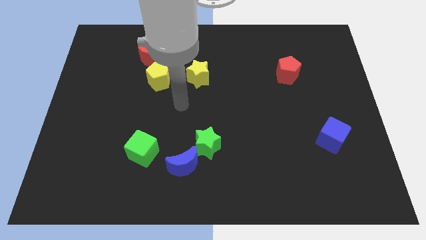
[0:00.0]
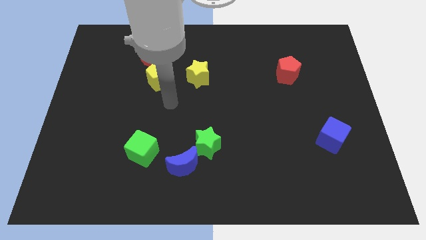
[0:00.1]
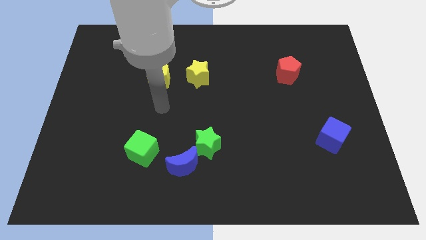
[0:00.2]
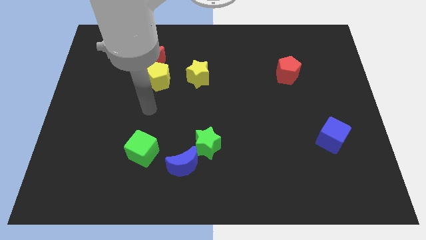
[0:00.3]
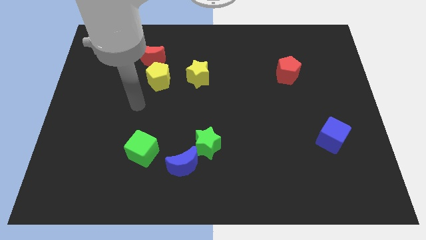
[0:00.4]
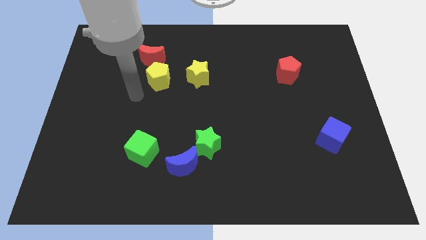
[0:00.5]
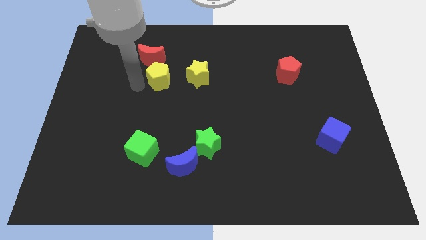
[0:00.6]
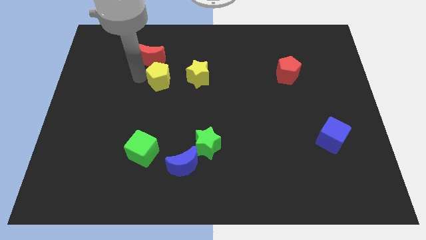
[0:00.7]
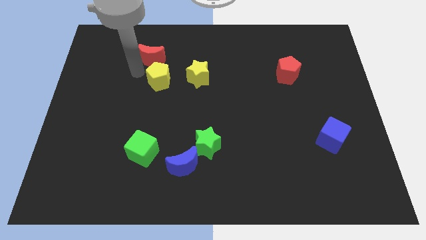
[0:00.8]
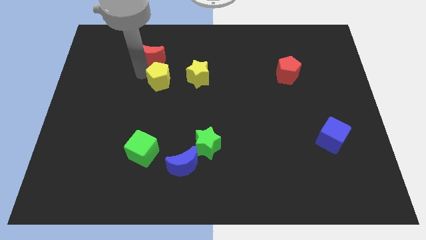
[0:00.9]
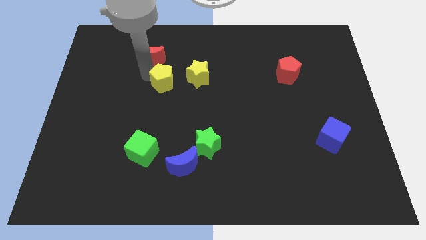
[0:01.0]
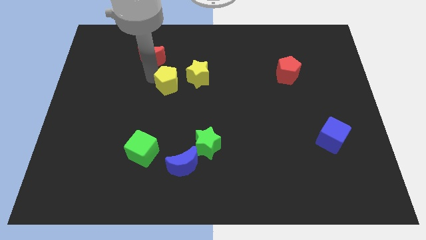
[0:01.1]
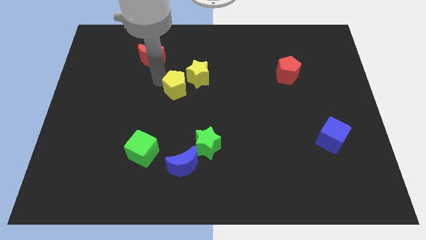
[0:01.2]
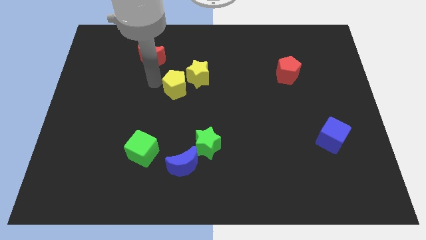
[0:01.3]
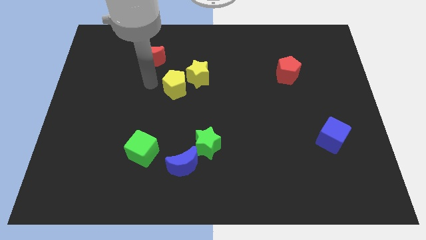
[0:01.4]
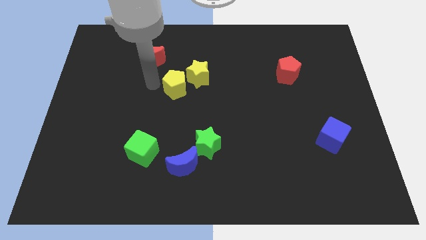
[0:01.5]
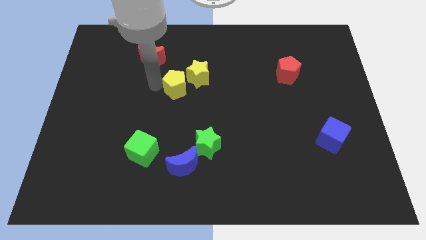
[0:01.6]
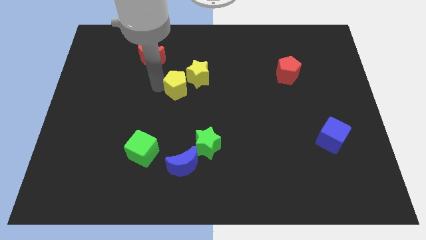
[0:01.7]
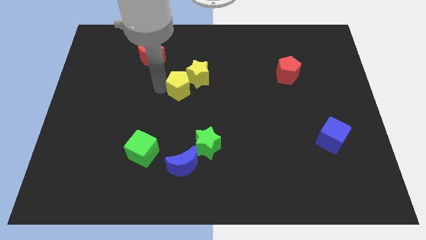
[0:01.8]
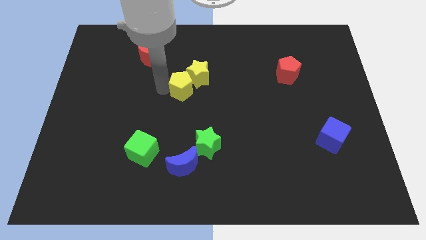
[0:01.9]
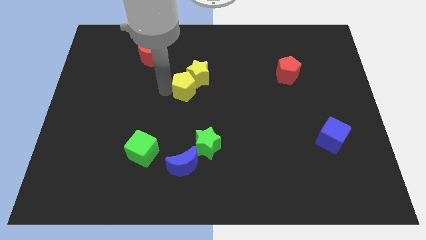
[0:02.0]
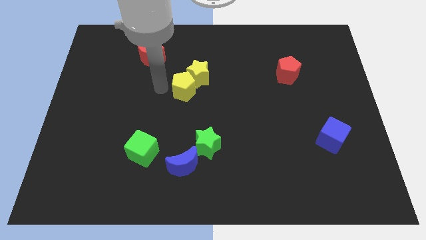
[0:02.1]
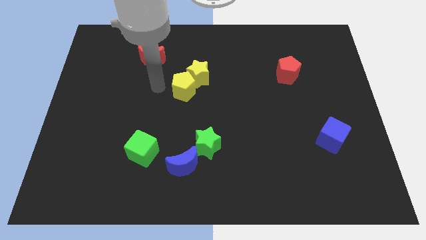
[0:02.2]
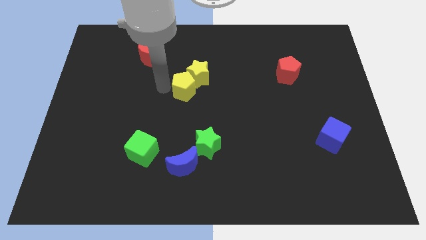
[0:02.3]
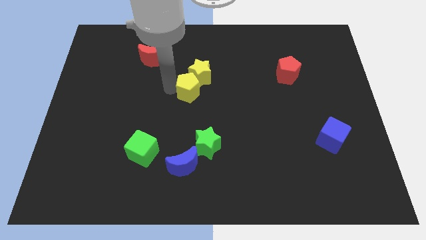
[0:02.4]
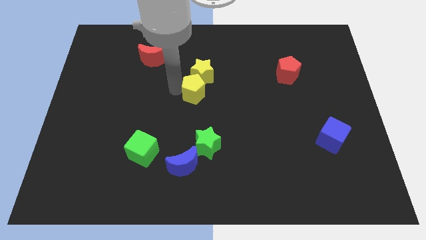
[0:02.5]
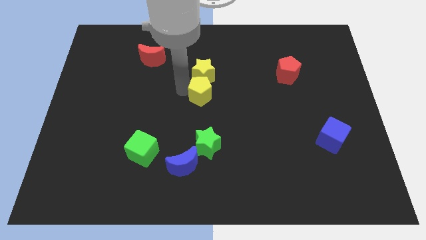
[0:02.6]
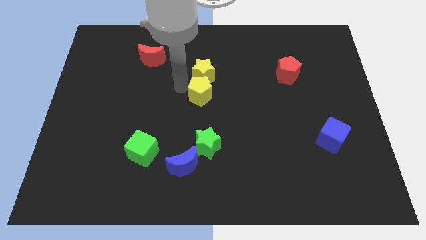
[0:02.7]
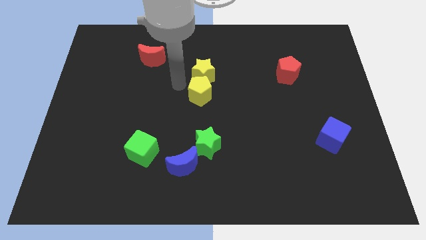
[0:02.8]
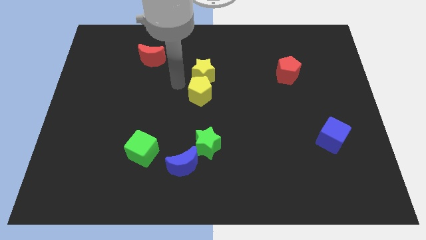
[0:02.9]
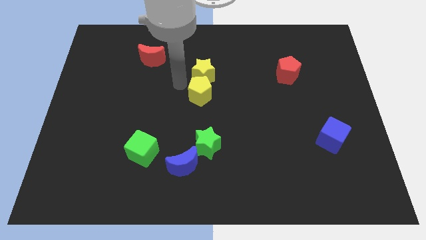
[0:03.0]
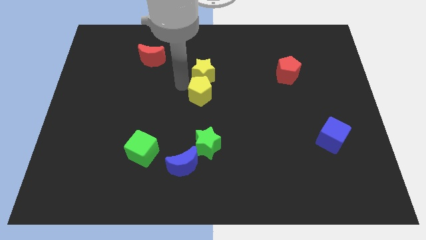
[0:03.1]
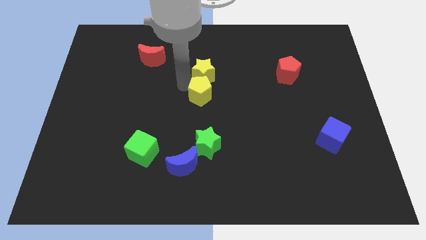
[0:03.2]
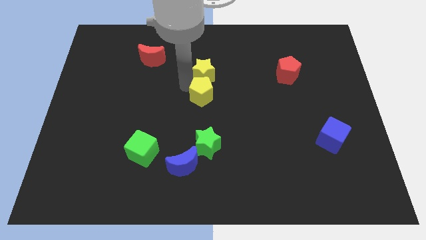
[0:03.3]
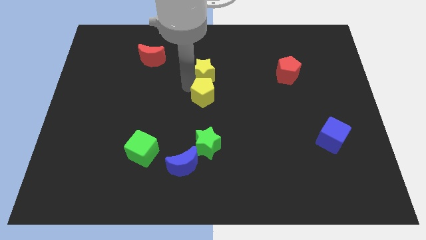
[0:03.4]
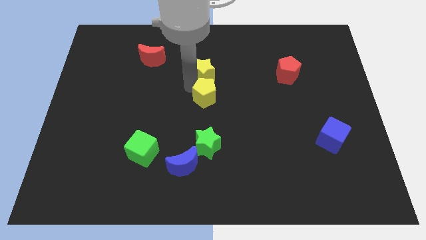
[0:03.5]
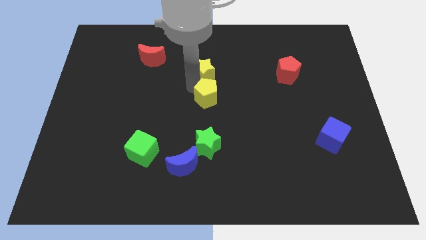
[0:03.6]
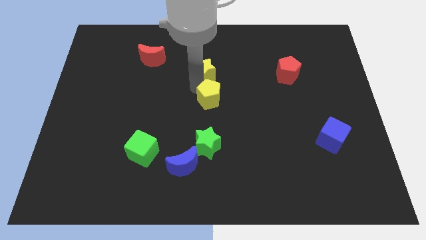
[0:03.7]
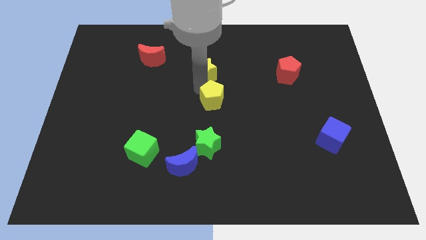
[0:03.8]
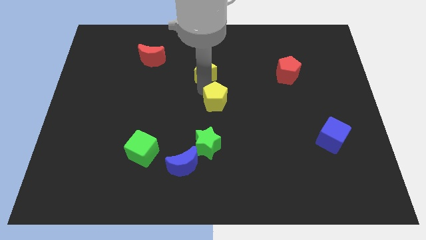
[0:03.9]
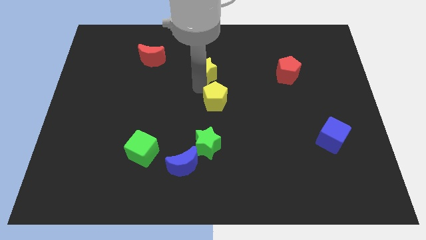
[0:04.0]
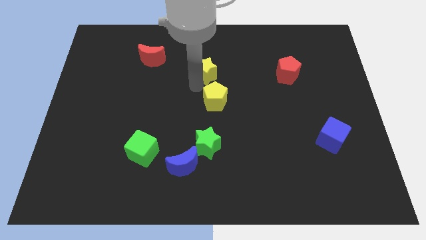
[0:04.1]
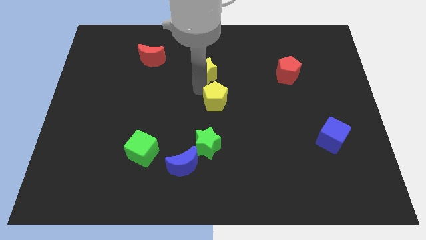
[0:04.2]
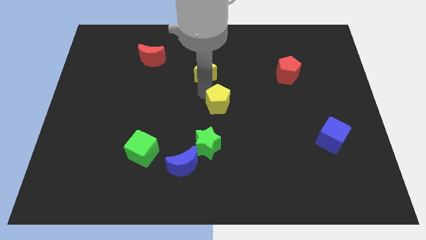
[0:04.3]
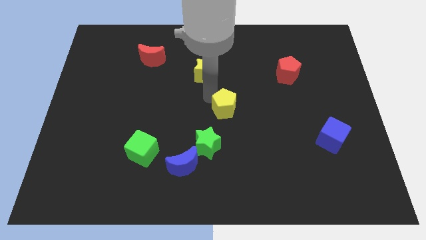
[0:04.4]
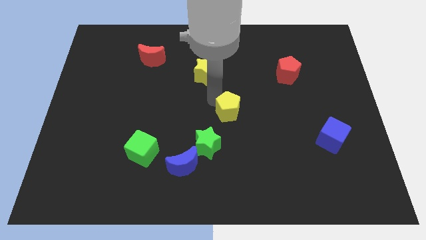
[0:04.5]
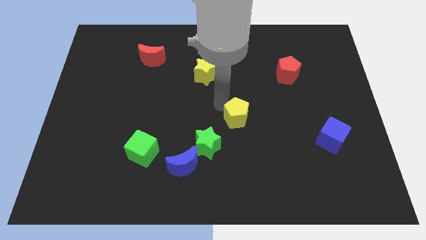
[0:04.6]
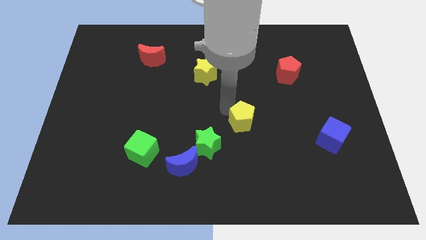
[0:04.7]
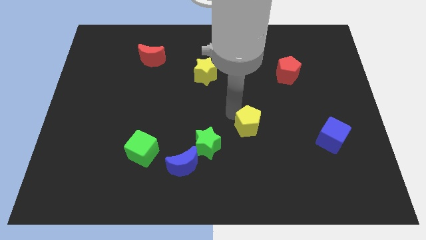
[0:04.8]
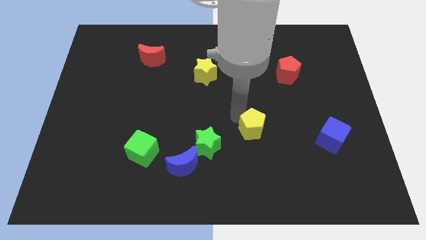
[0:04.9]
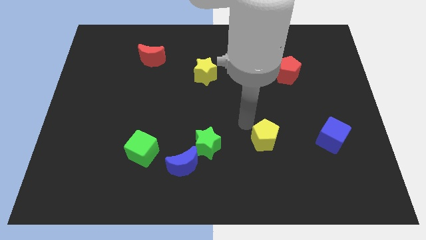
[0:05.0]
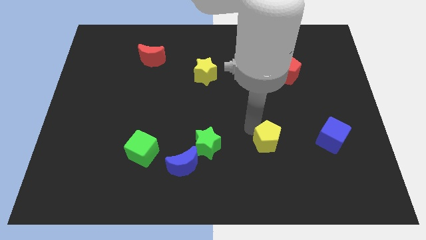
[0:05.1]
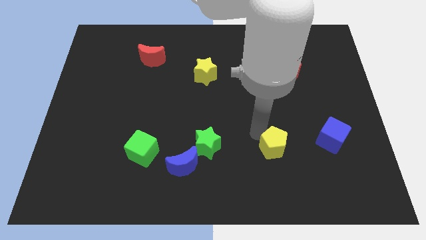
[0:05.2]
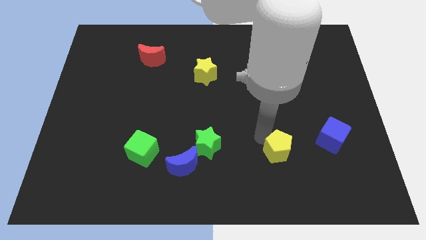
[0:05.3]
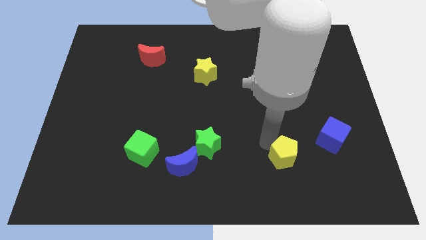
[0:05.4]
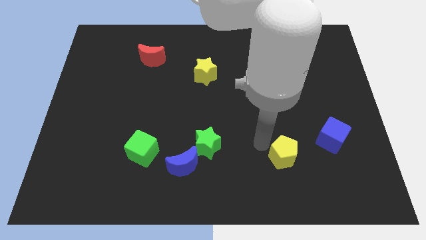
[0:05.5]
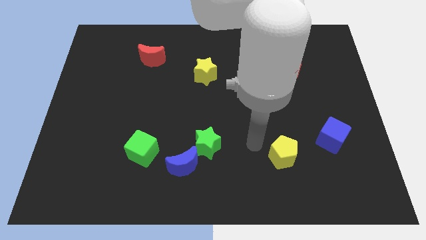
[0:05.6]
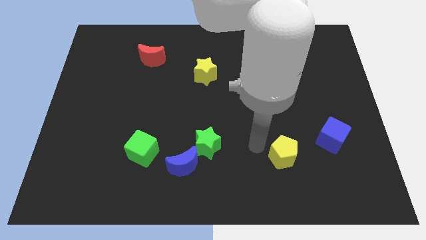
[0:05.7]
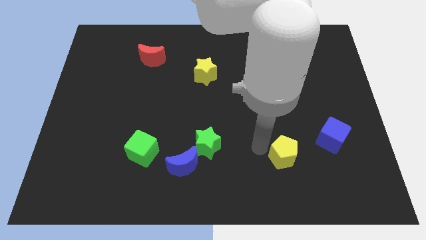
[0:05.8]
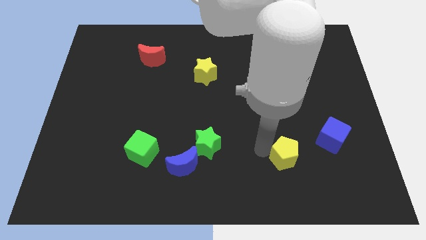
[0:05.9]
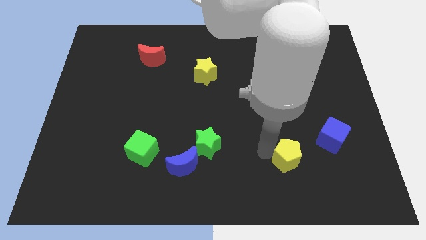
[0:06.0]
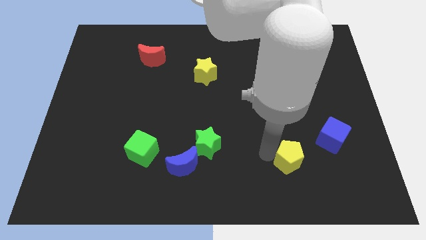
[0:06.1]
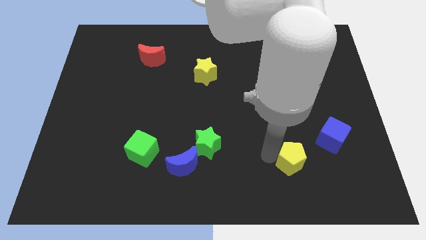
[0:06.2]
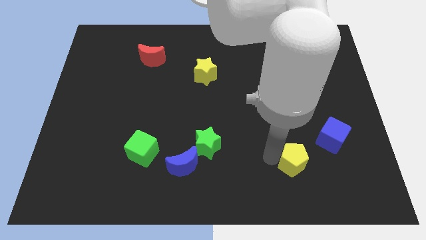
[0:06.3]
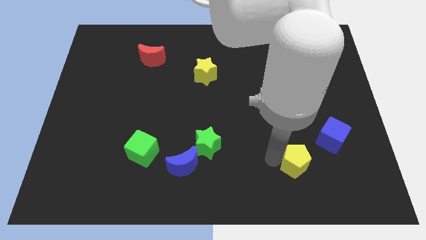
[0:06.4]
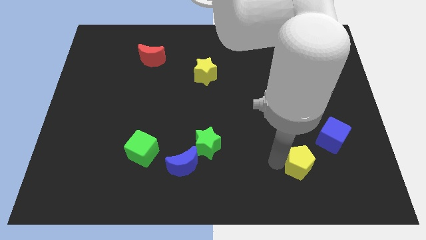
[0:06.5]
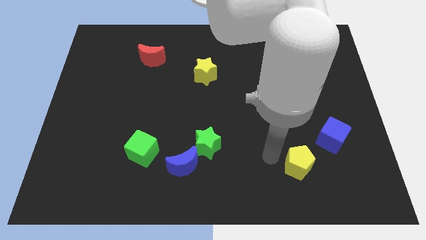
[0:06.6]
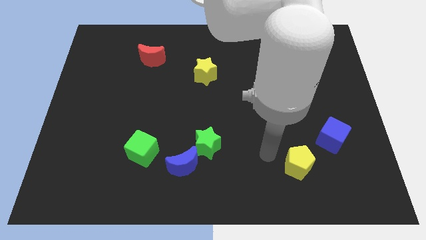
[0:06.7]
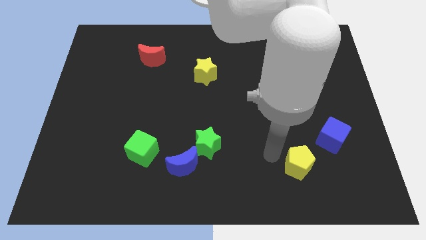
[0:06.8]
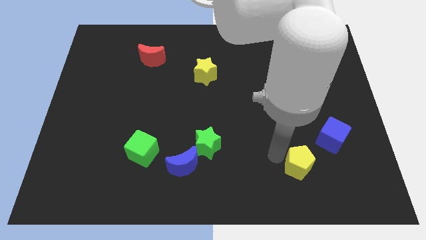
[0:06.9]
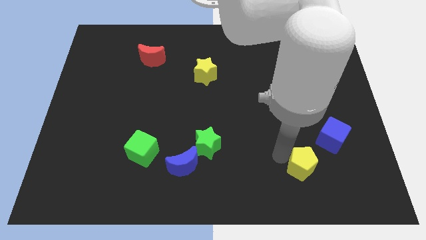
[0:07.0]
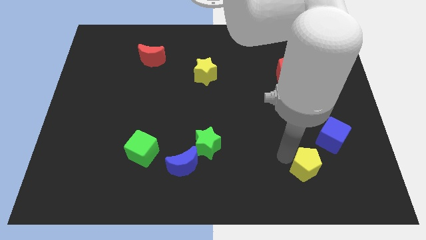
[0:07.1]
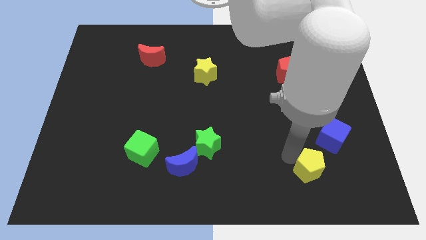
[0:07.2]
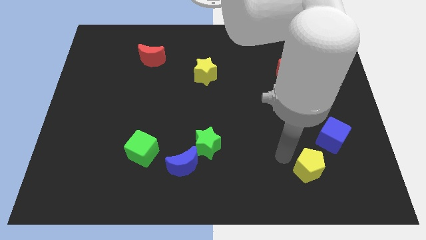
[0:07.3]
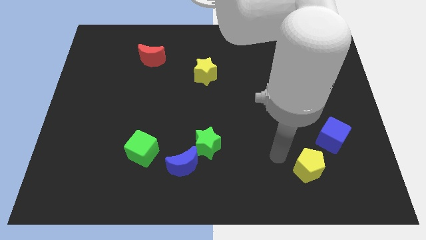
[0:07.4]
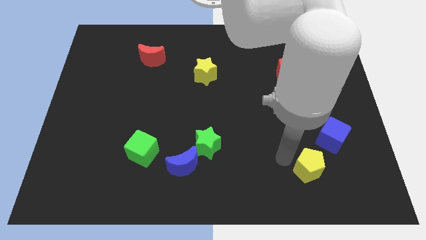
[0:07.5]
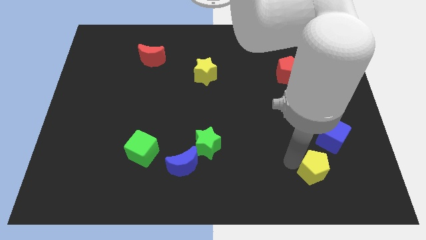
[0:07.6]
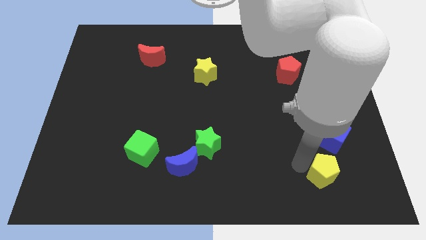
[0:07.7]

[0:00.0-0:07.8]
slide the yellow pentagon below the blue cube
